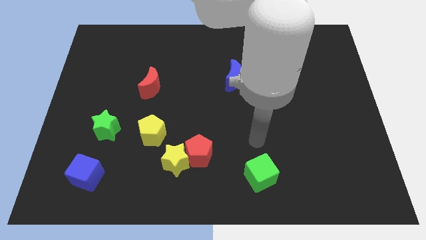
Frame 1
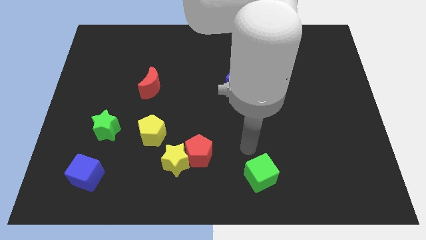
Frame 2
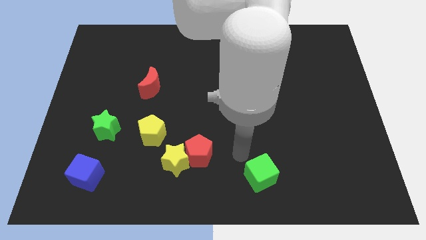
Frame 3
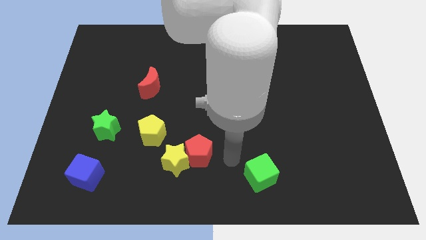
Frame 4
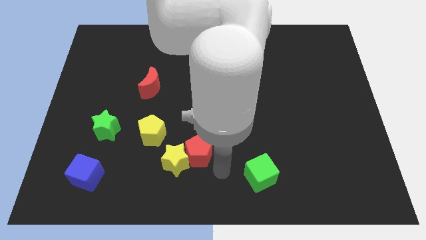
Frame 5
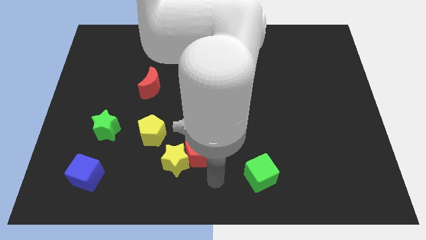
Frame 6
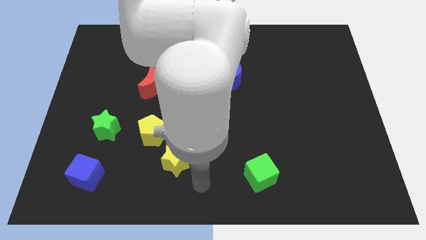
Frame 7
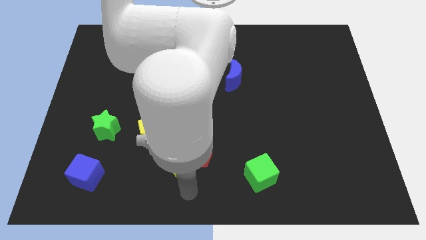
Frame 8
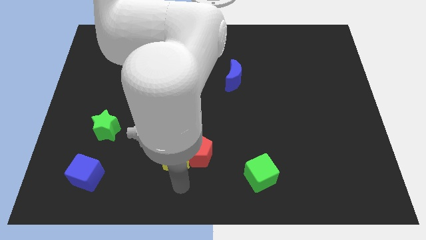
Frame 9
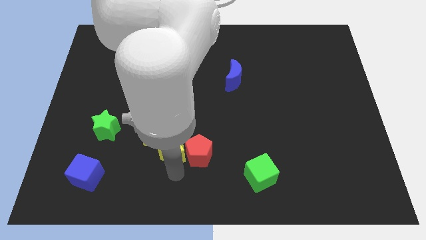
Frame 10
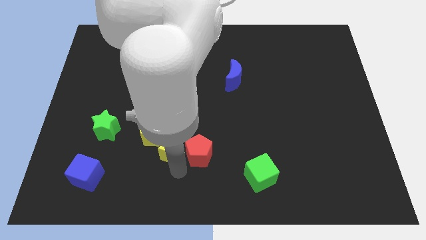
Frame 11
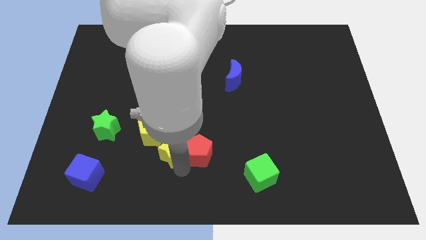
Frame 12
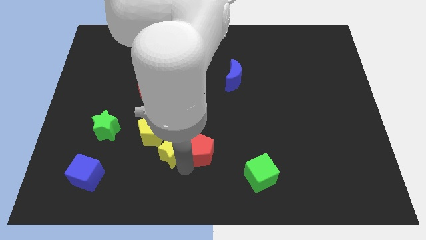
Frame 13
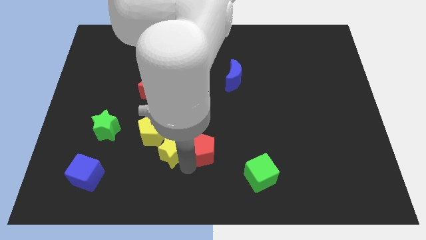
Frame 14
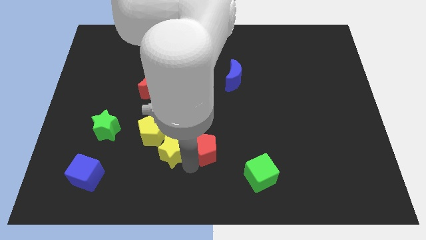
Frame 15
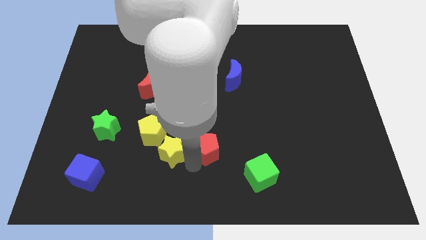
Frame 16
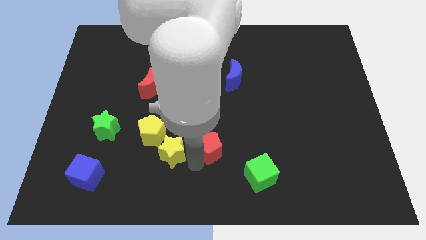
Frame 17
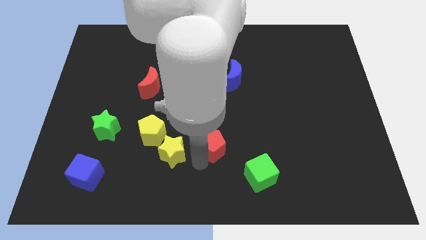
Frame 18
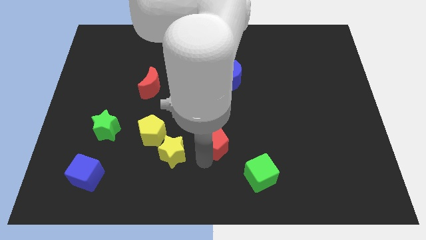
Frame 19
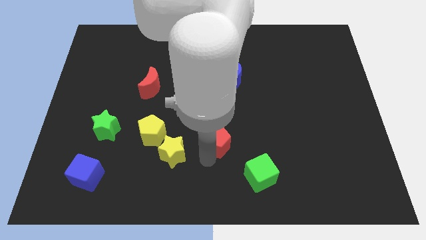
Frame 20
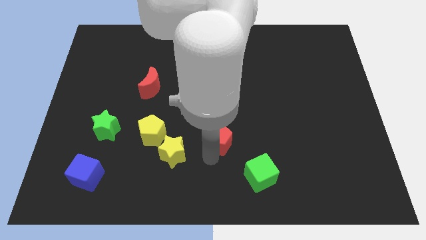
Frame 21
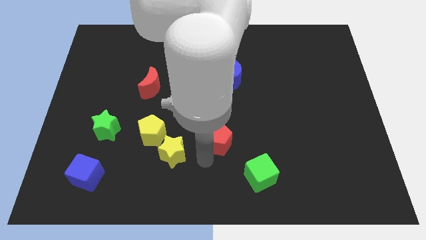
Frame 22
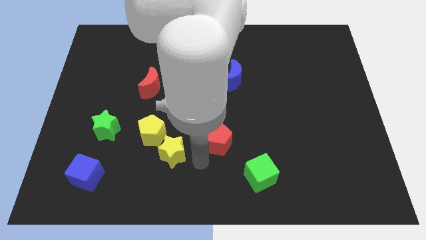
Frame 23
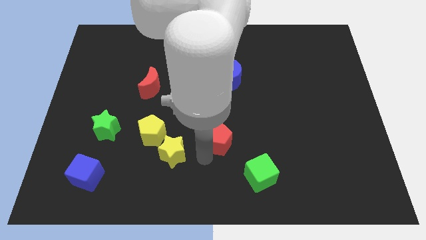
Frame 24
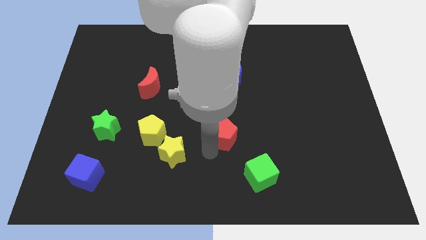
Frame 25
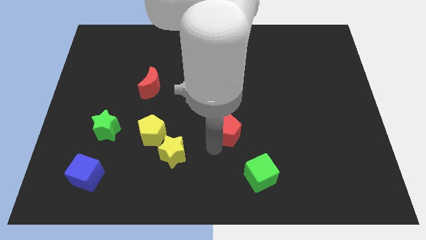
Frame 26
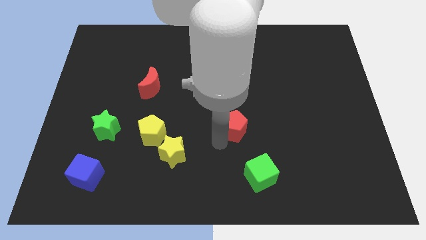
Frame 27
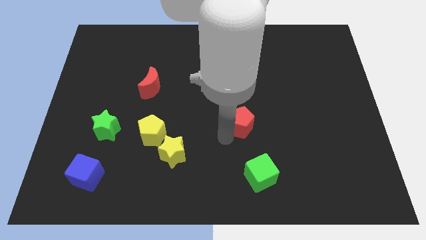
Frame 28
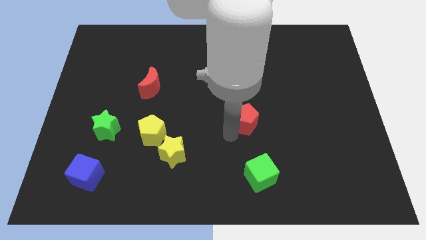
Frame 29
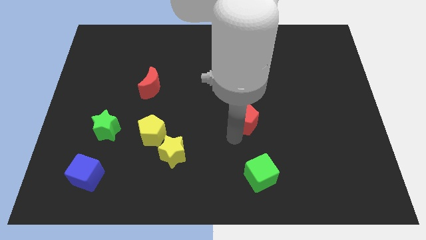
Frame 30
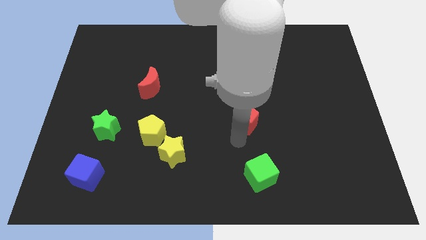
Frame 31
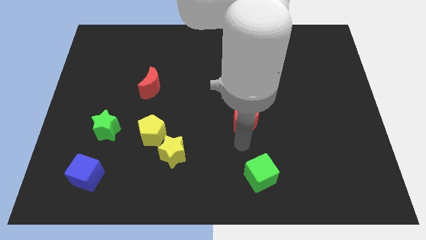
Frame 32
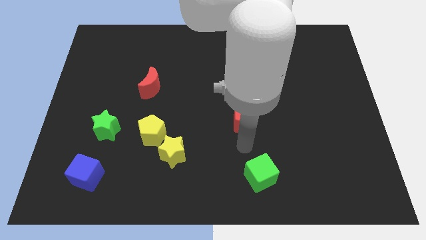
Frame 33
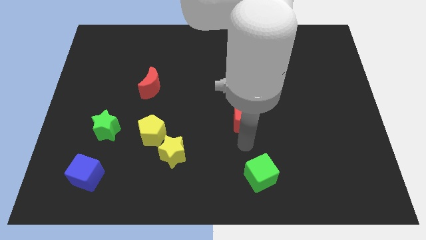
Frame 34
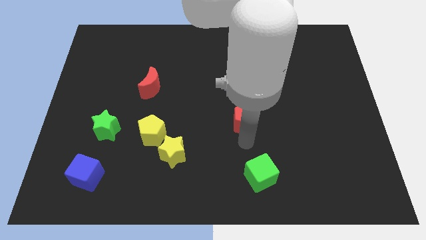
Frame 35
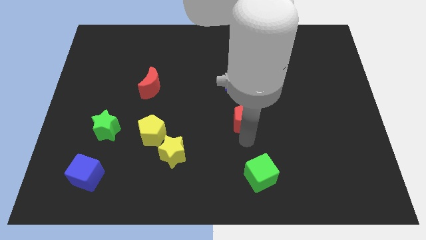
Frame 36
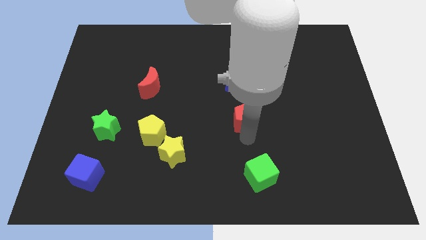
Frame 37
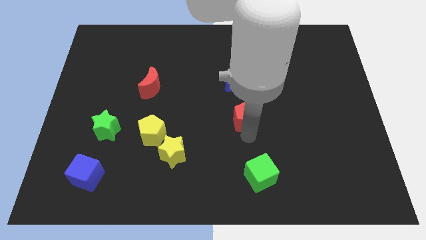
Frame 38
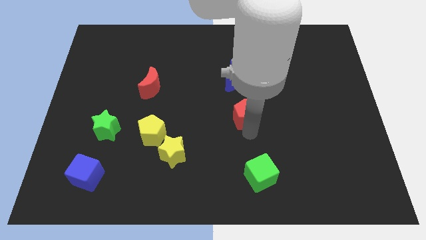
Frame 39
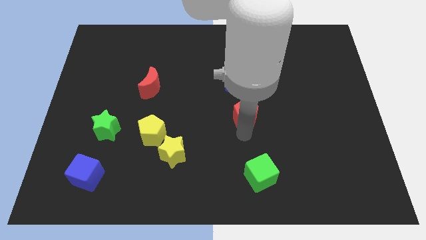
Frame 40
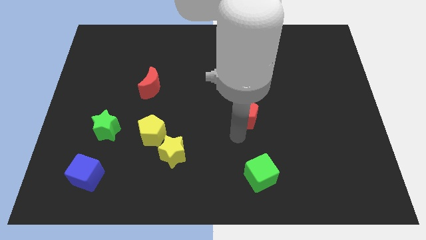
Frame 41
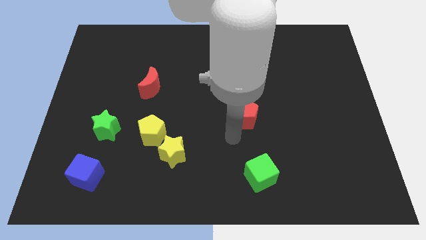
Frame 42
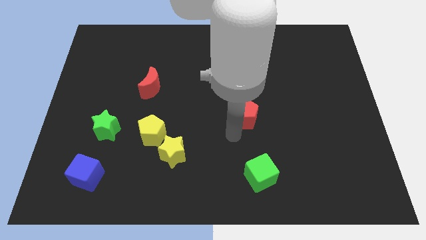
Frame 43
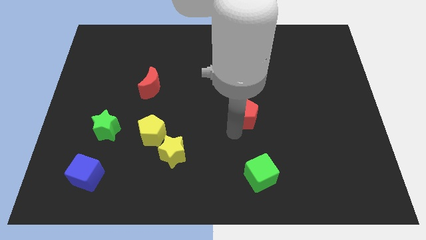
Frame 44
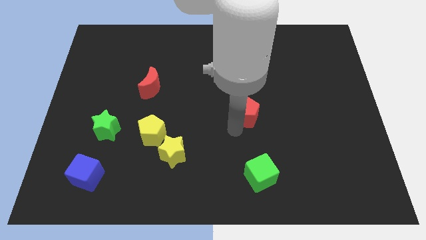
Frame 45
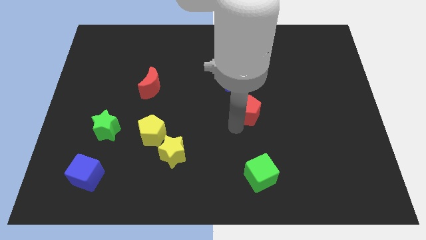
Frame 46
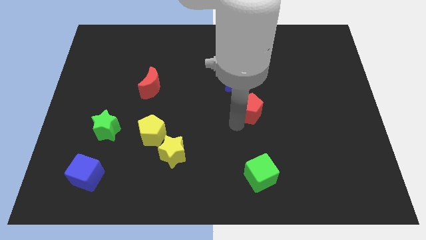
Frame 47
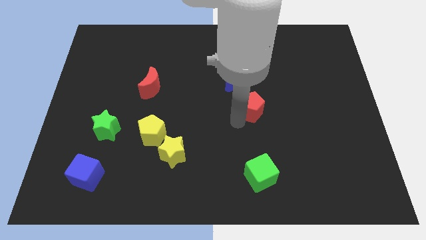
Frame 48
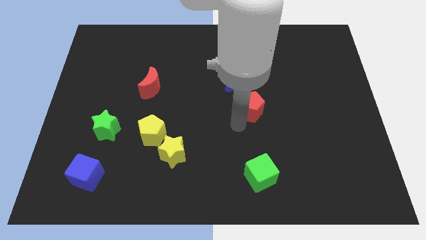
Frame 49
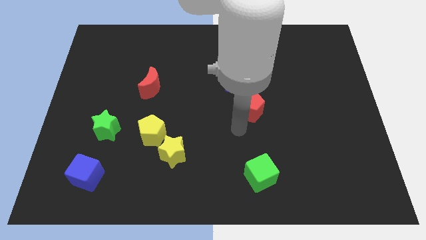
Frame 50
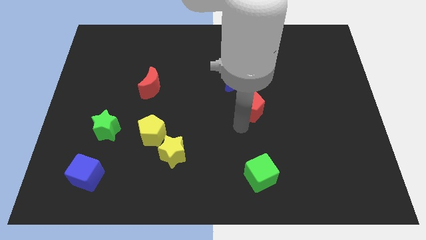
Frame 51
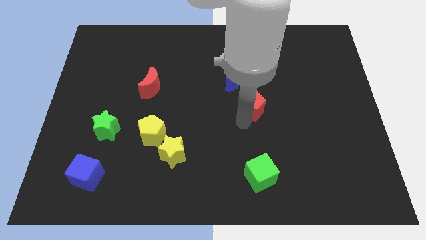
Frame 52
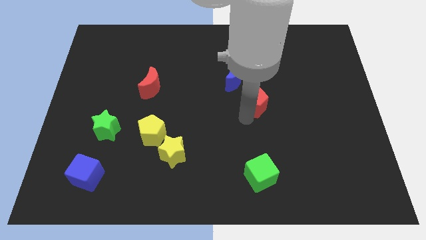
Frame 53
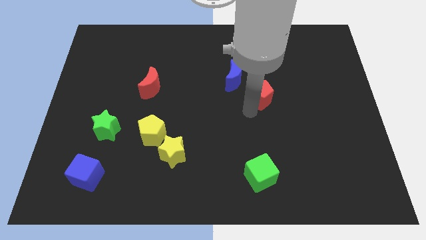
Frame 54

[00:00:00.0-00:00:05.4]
slide the red pentagon up and to the right

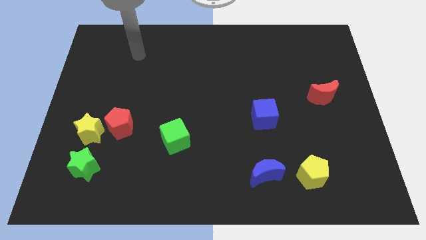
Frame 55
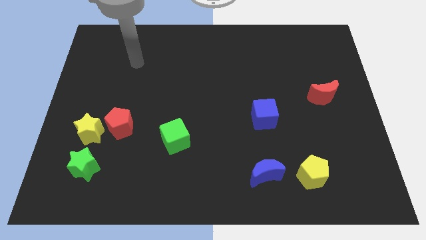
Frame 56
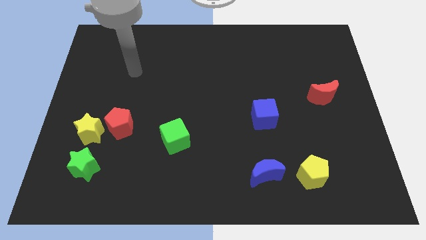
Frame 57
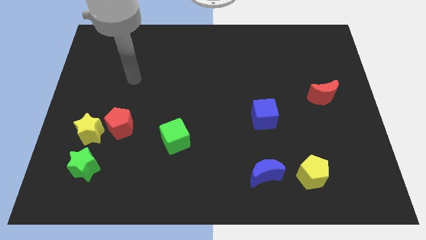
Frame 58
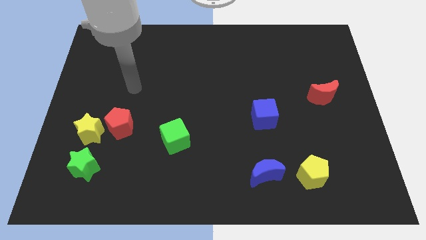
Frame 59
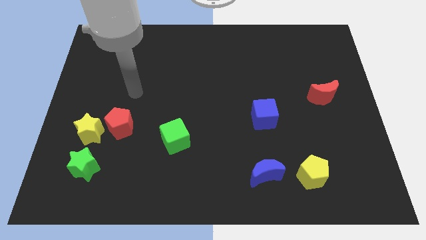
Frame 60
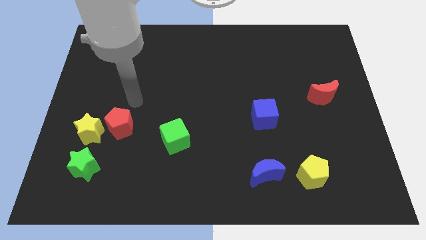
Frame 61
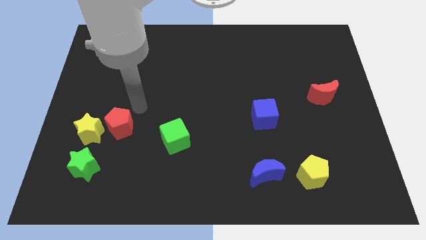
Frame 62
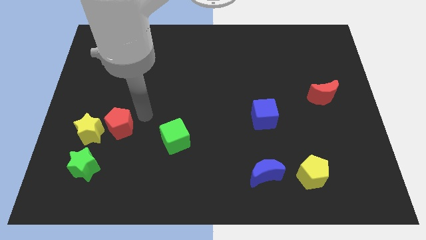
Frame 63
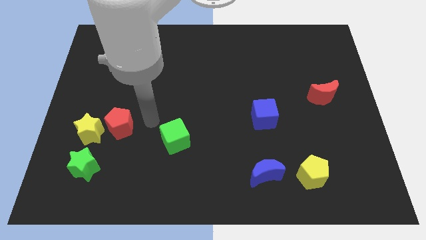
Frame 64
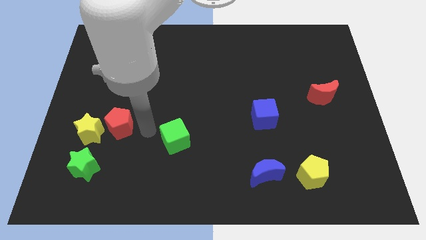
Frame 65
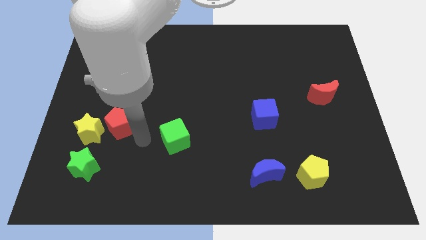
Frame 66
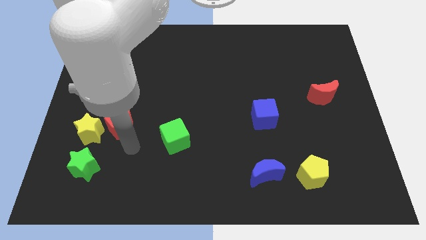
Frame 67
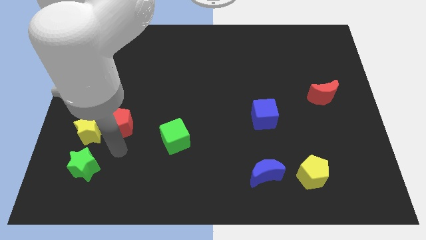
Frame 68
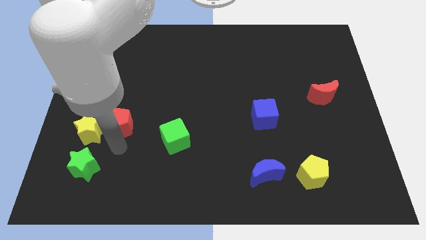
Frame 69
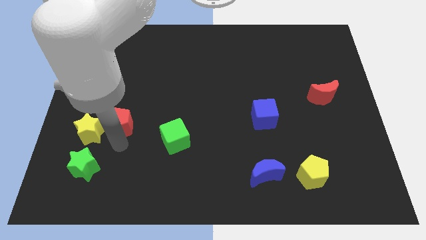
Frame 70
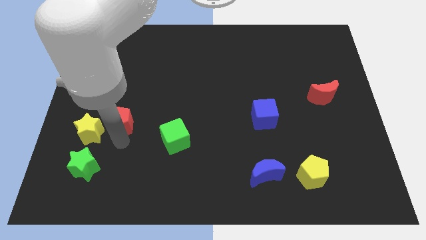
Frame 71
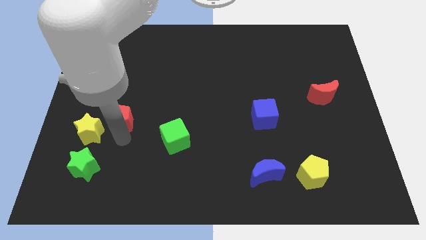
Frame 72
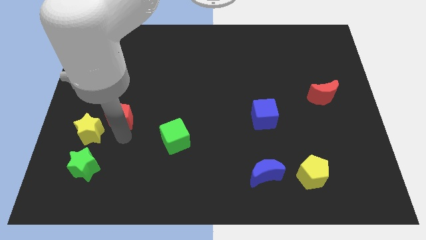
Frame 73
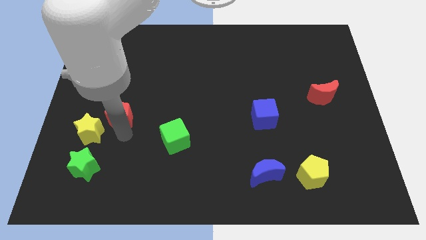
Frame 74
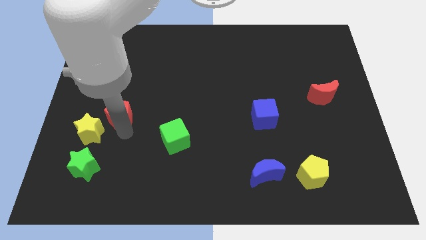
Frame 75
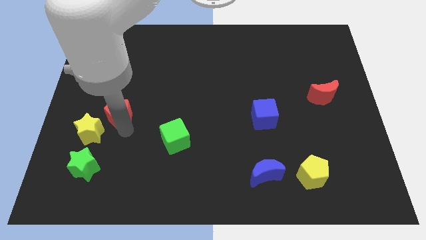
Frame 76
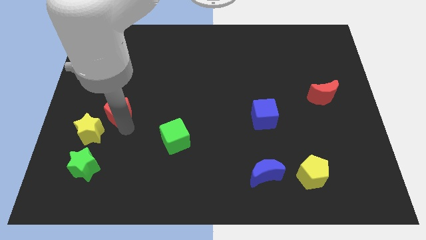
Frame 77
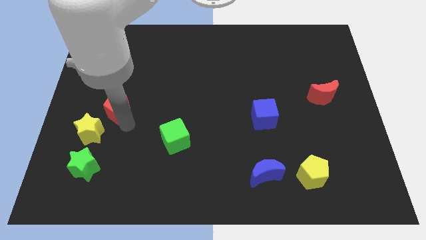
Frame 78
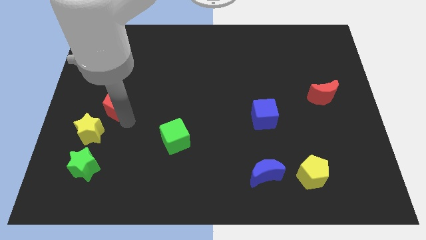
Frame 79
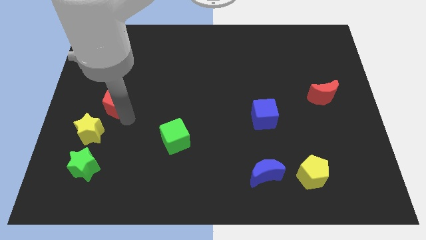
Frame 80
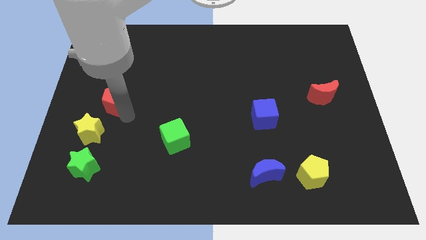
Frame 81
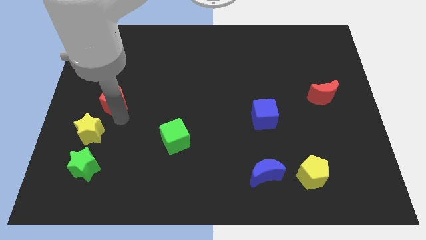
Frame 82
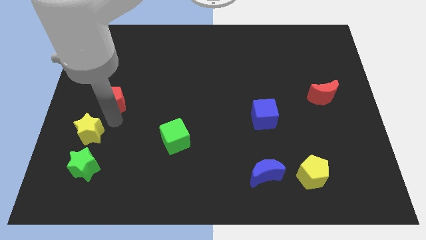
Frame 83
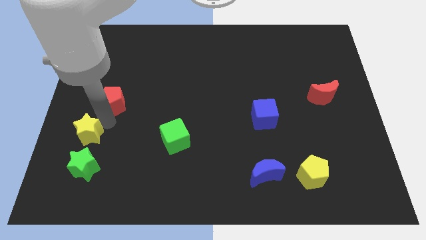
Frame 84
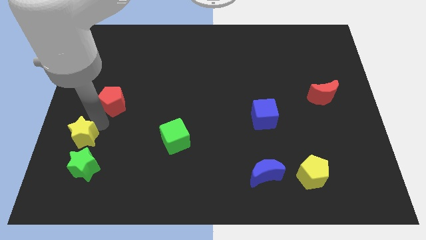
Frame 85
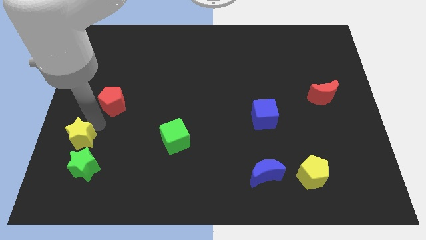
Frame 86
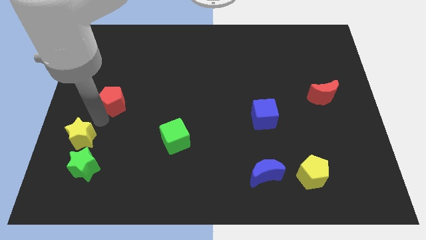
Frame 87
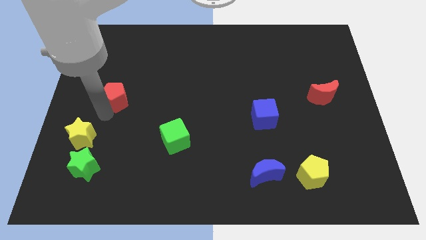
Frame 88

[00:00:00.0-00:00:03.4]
move the red pentagon up a little
